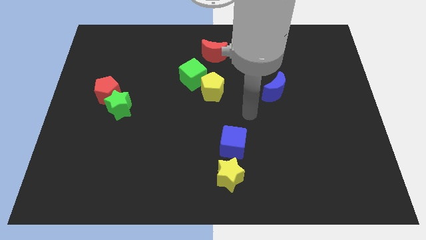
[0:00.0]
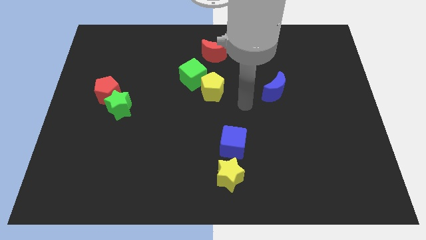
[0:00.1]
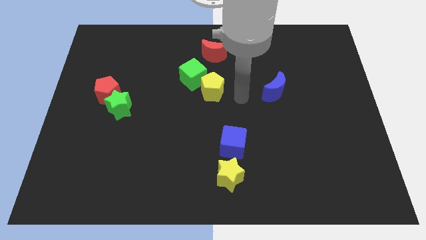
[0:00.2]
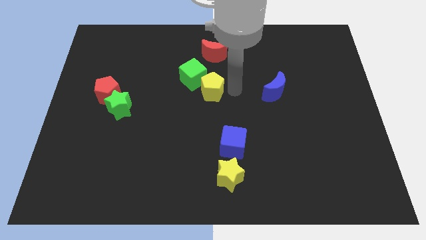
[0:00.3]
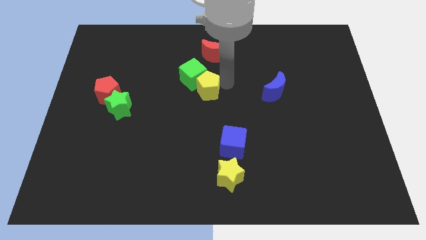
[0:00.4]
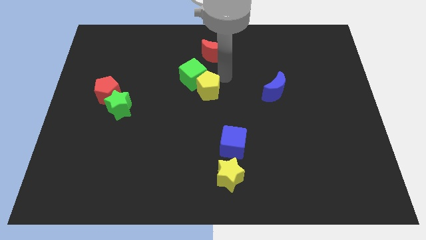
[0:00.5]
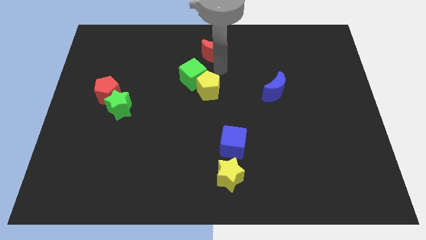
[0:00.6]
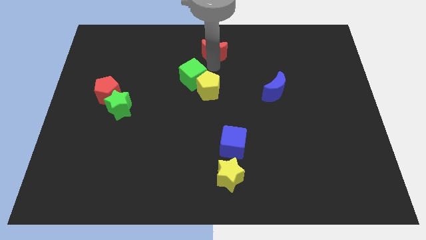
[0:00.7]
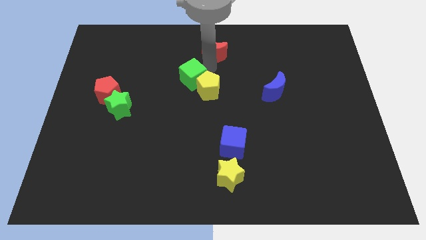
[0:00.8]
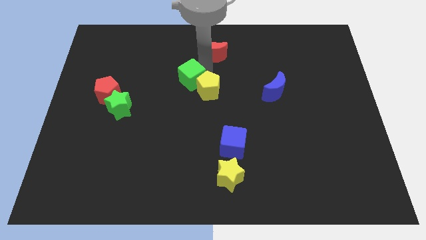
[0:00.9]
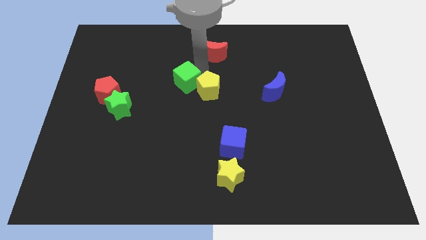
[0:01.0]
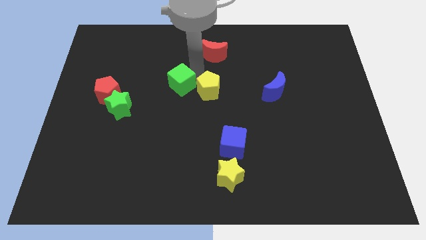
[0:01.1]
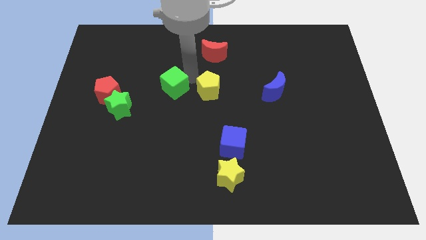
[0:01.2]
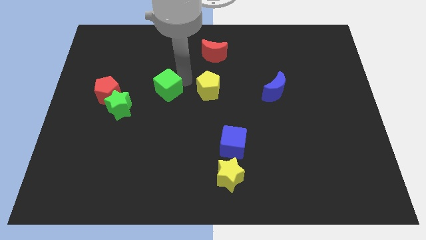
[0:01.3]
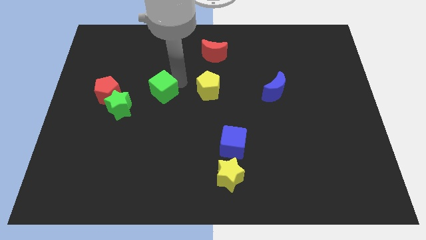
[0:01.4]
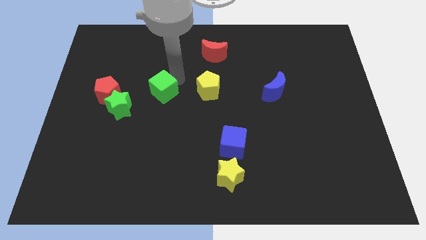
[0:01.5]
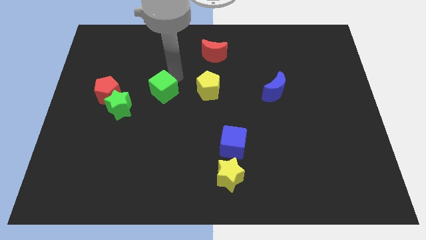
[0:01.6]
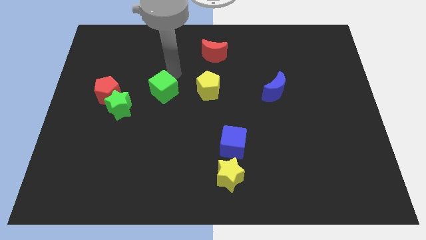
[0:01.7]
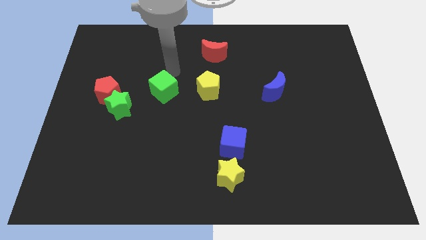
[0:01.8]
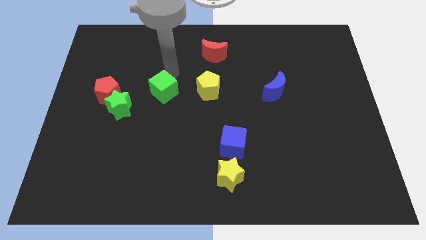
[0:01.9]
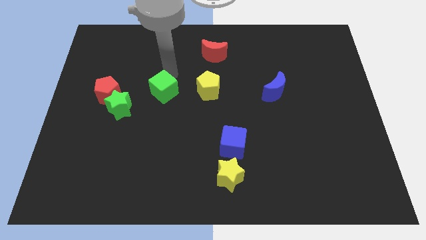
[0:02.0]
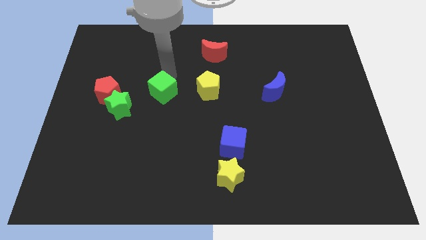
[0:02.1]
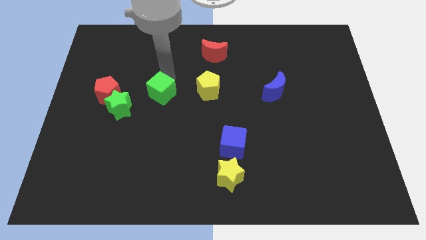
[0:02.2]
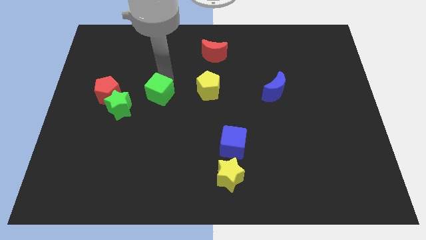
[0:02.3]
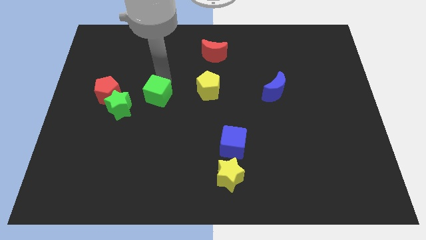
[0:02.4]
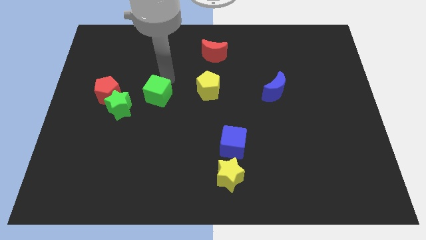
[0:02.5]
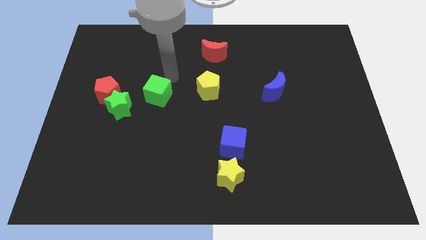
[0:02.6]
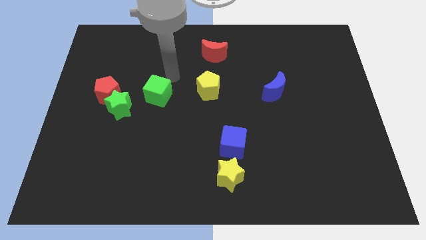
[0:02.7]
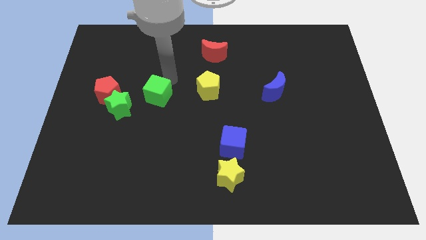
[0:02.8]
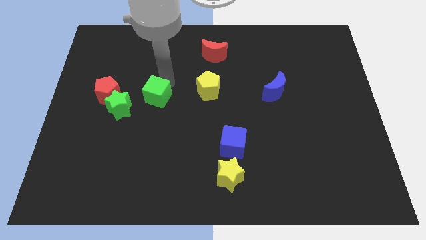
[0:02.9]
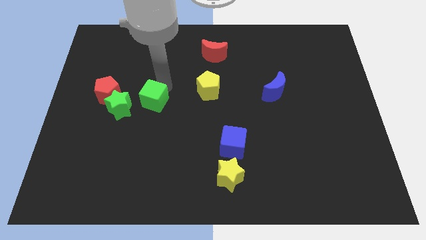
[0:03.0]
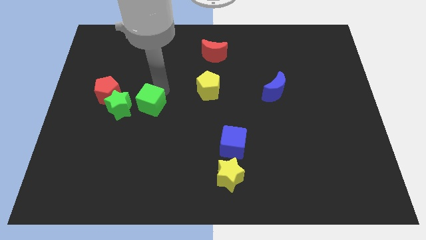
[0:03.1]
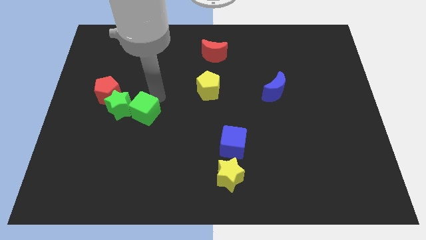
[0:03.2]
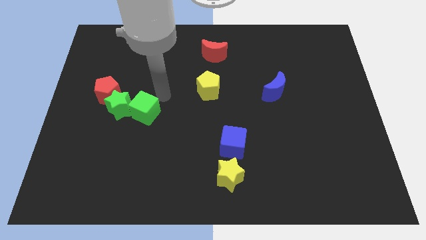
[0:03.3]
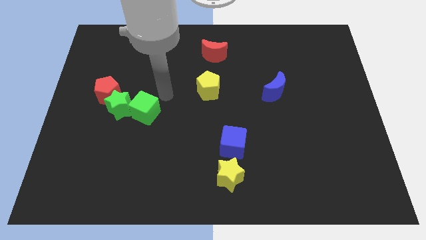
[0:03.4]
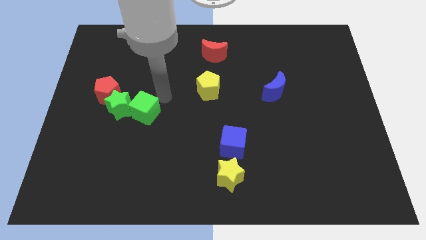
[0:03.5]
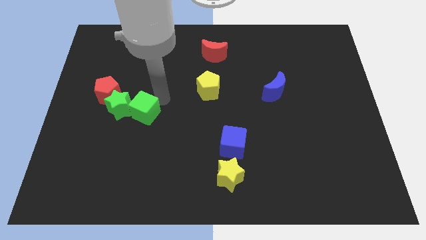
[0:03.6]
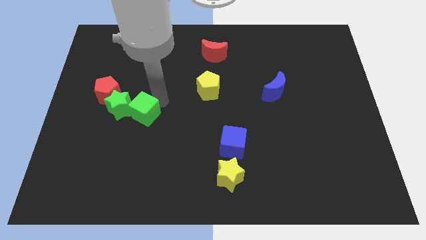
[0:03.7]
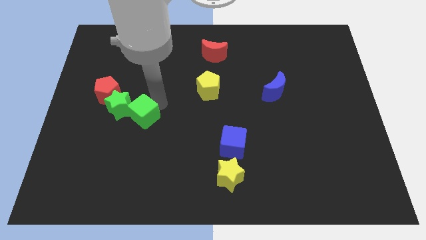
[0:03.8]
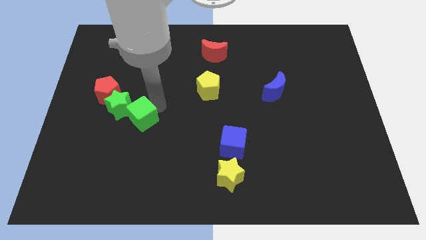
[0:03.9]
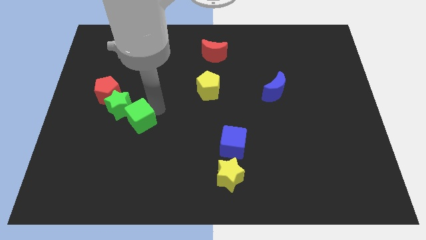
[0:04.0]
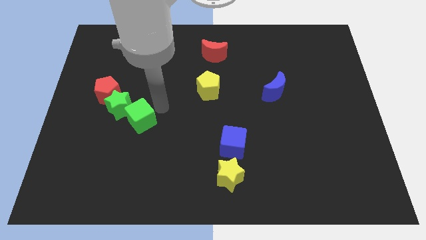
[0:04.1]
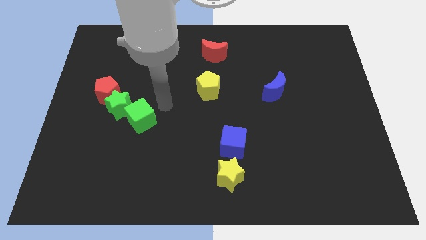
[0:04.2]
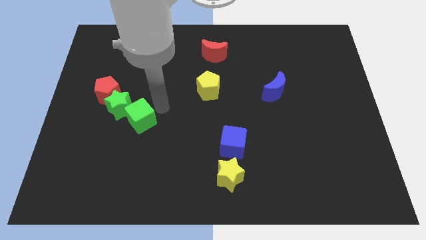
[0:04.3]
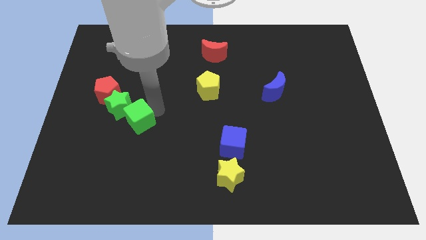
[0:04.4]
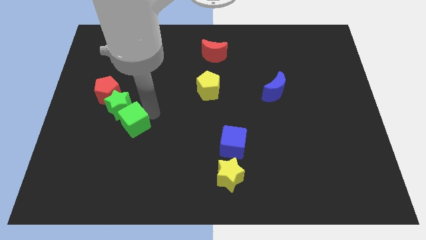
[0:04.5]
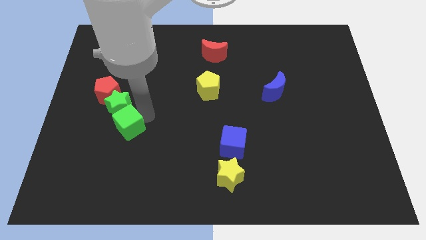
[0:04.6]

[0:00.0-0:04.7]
move the green cube downwards and then left

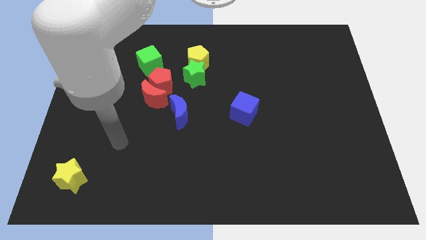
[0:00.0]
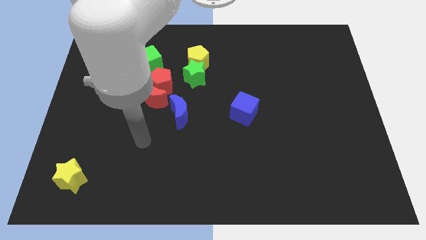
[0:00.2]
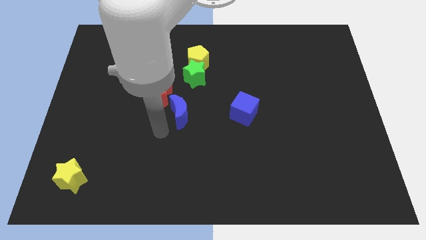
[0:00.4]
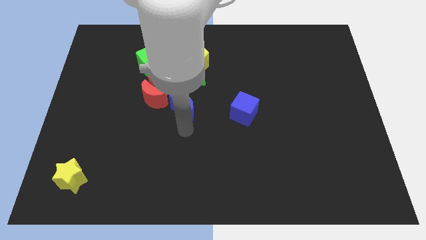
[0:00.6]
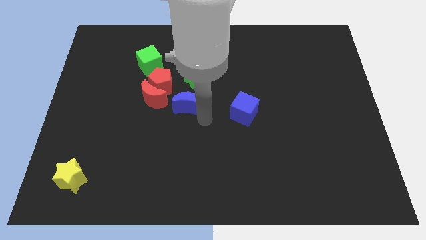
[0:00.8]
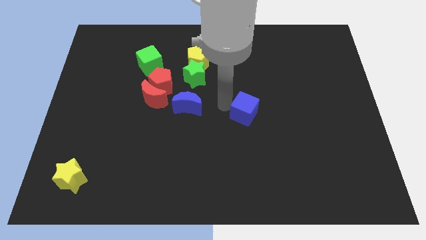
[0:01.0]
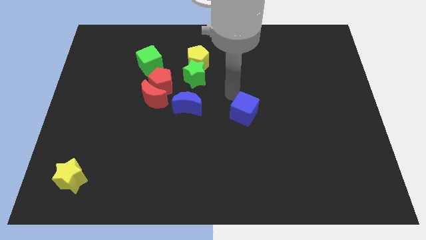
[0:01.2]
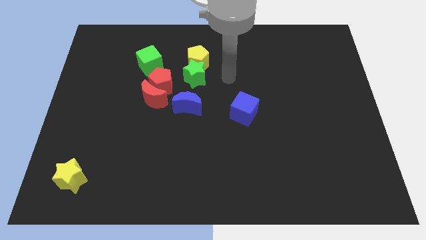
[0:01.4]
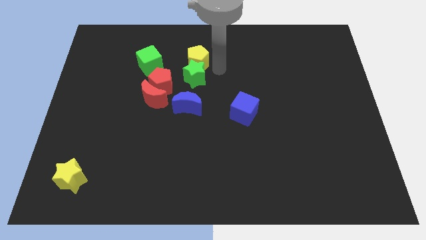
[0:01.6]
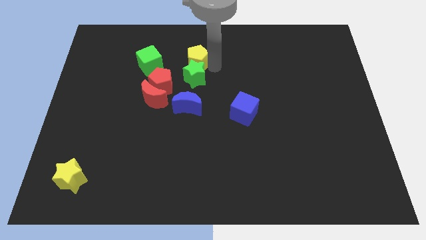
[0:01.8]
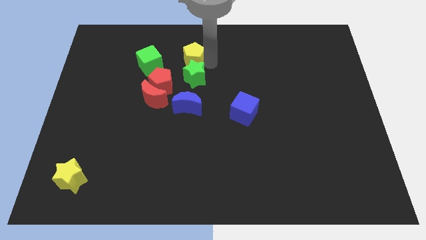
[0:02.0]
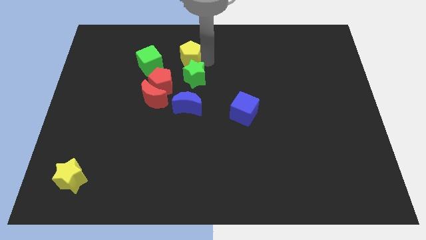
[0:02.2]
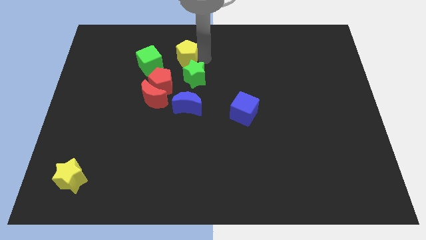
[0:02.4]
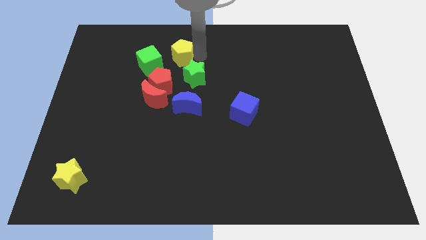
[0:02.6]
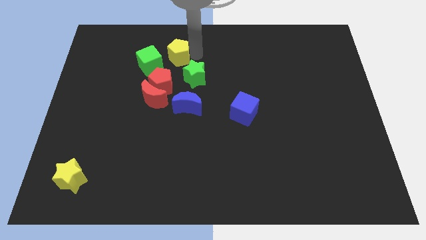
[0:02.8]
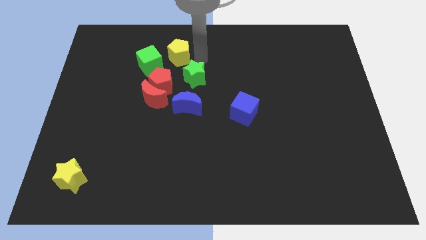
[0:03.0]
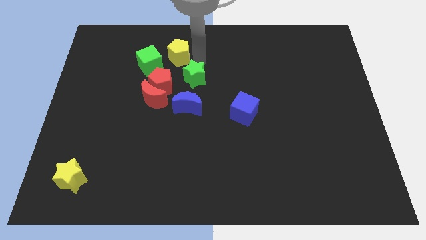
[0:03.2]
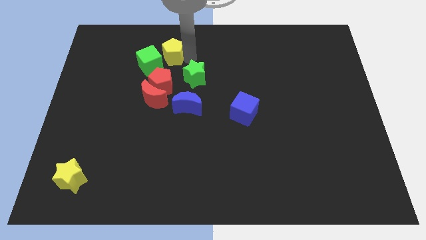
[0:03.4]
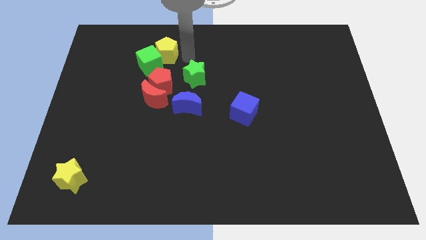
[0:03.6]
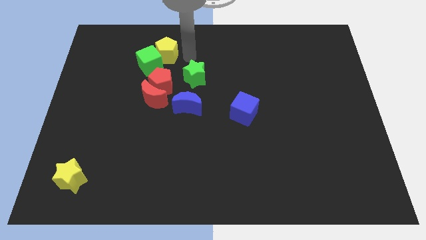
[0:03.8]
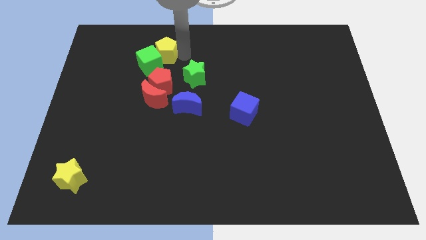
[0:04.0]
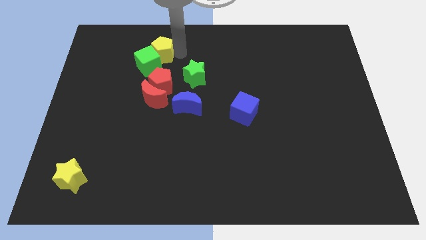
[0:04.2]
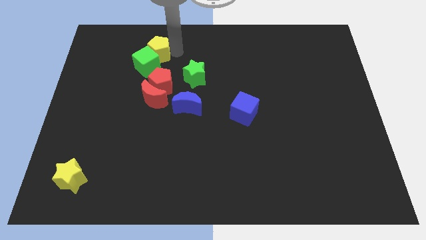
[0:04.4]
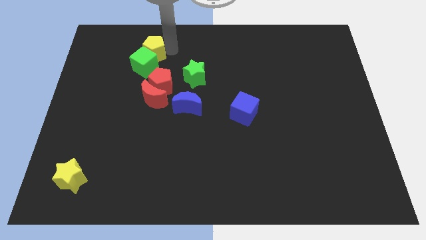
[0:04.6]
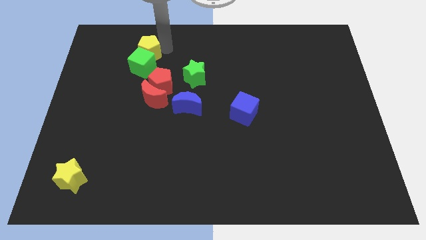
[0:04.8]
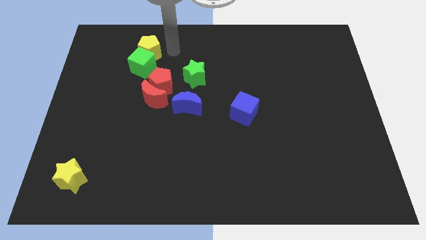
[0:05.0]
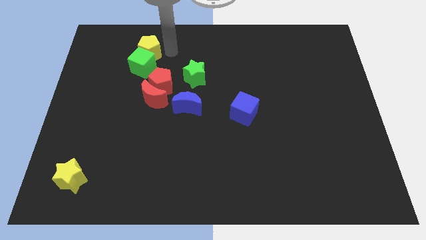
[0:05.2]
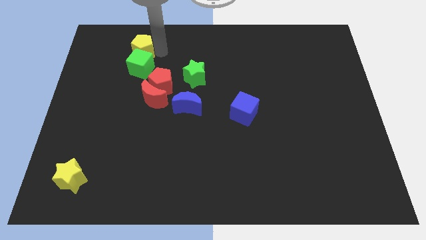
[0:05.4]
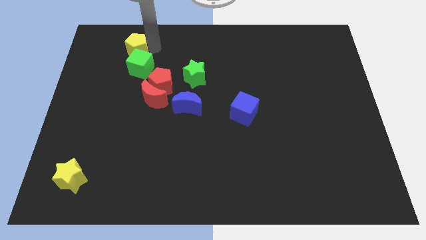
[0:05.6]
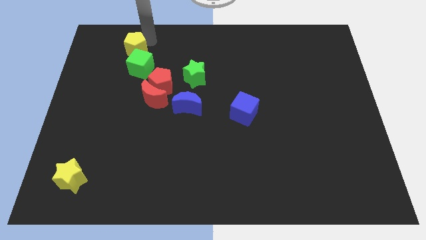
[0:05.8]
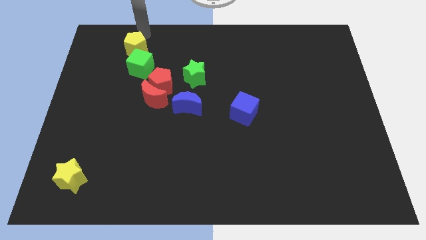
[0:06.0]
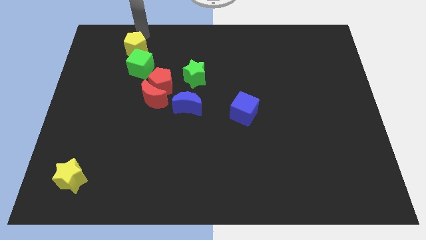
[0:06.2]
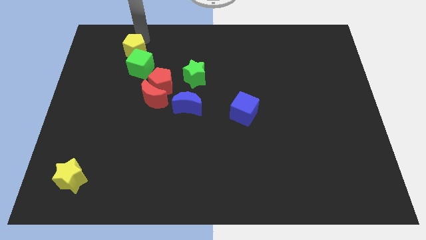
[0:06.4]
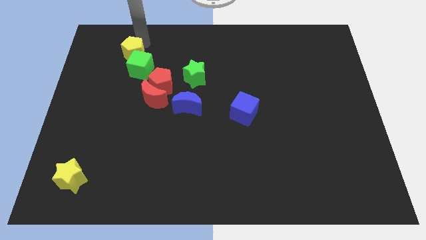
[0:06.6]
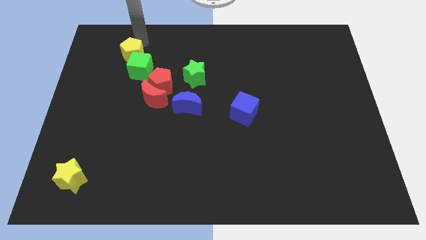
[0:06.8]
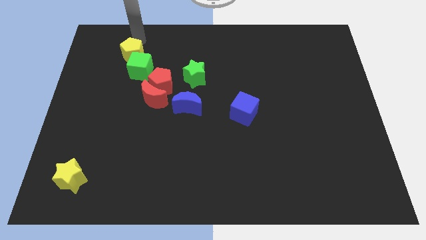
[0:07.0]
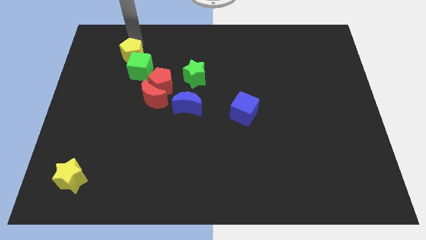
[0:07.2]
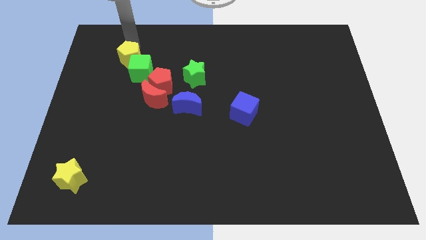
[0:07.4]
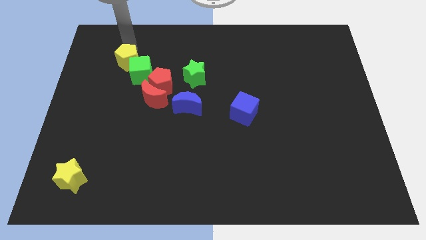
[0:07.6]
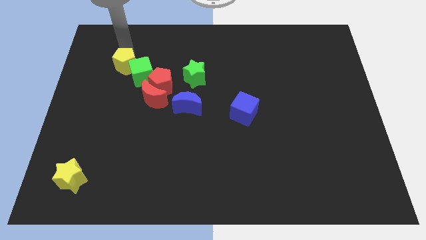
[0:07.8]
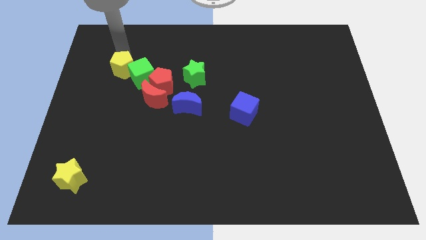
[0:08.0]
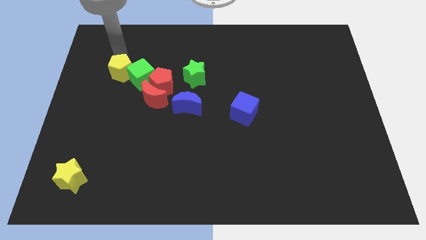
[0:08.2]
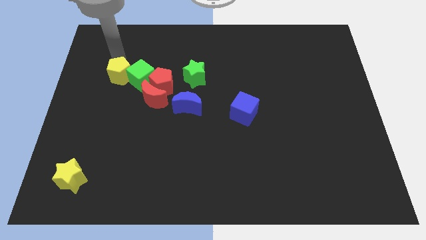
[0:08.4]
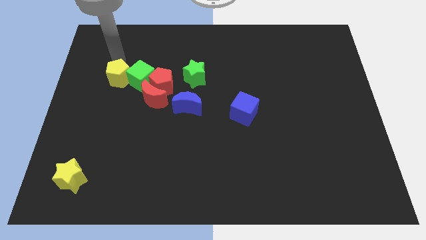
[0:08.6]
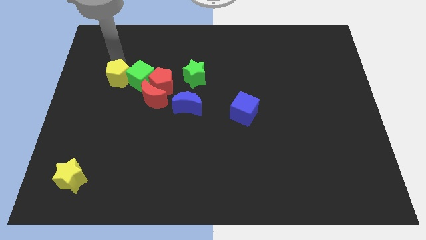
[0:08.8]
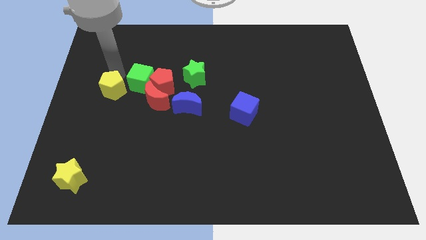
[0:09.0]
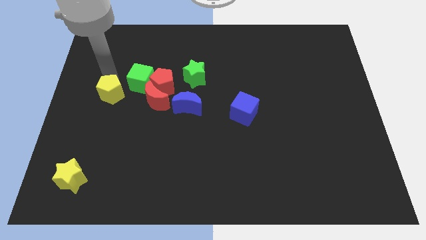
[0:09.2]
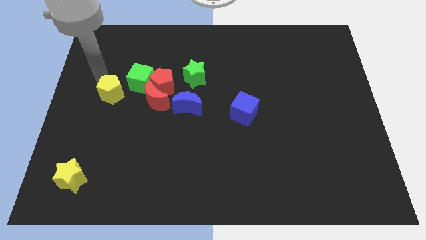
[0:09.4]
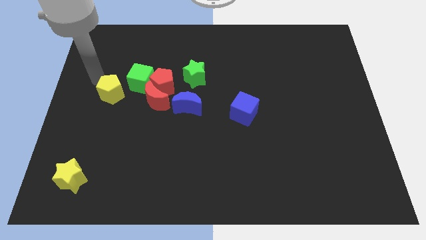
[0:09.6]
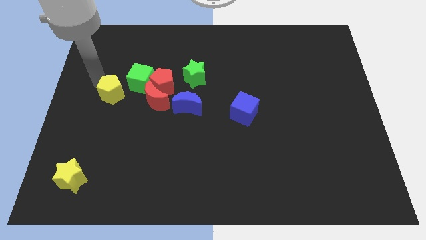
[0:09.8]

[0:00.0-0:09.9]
move the yellow pentagon downwards and then to the left
